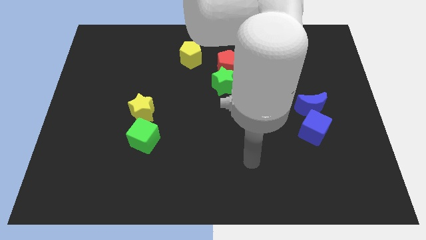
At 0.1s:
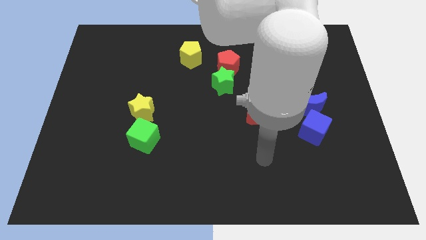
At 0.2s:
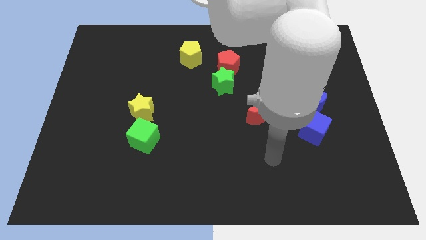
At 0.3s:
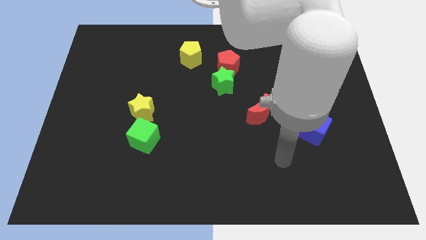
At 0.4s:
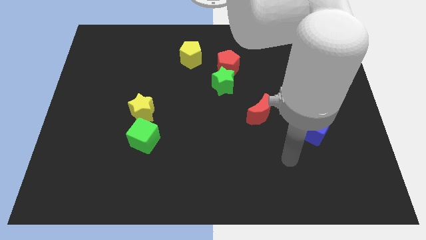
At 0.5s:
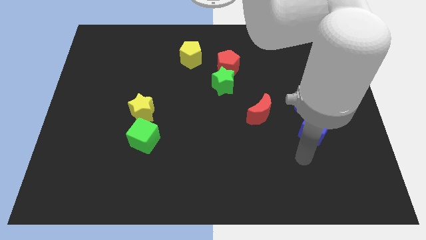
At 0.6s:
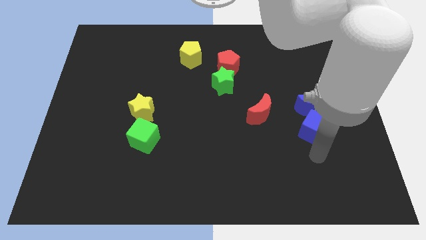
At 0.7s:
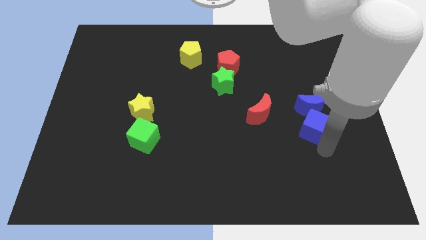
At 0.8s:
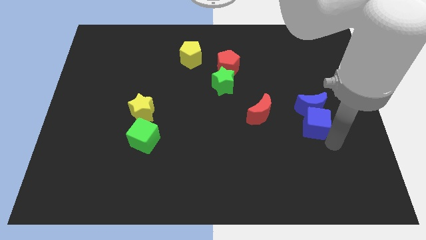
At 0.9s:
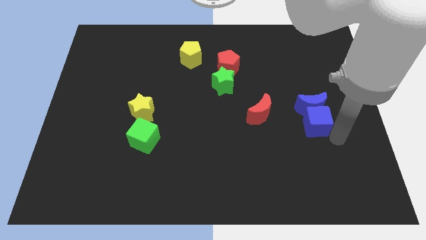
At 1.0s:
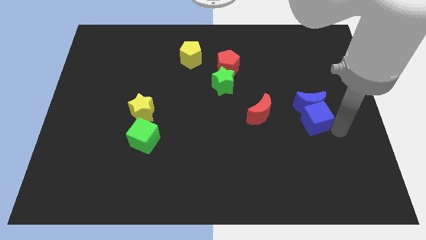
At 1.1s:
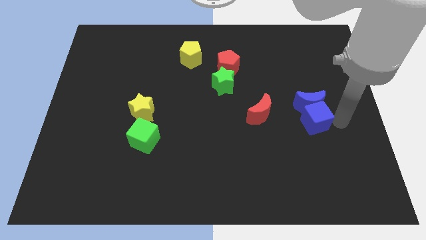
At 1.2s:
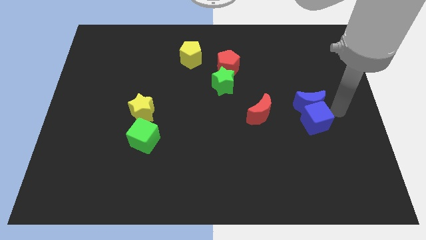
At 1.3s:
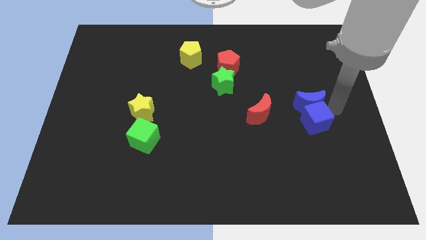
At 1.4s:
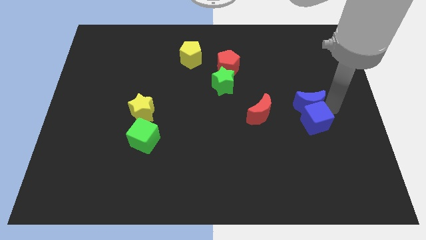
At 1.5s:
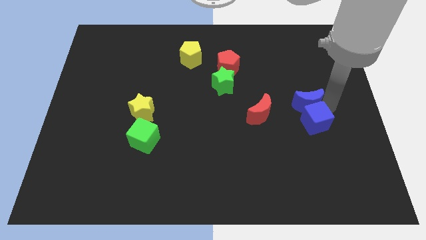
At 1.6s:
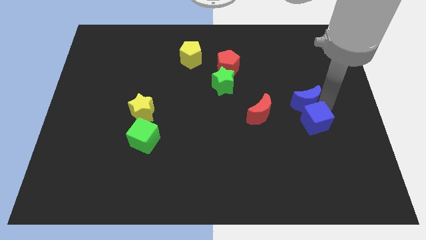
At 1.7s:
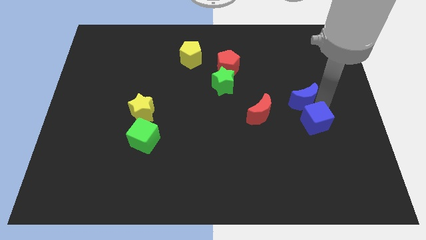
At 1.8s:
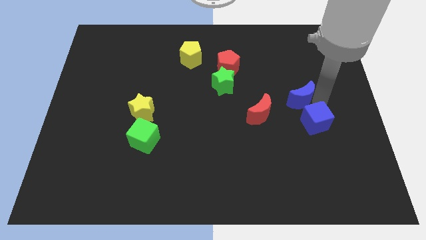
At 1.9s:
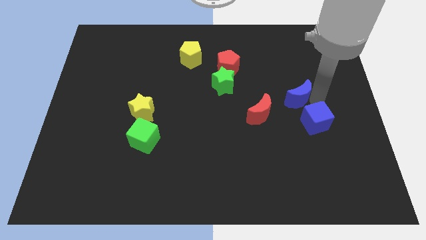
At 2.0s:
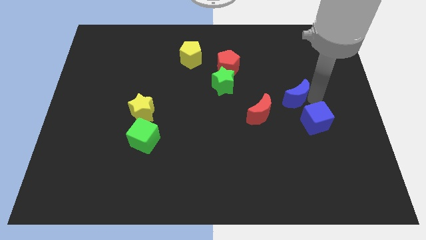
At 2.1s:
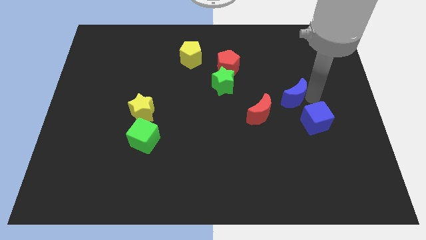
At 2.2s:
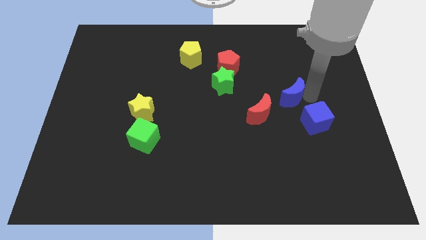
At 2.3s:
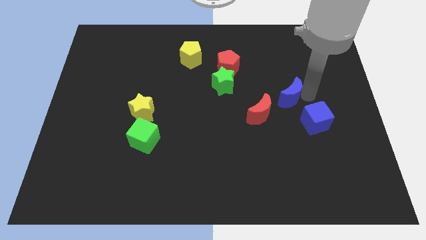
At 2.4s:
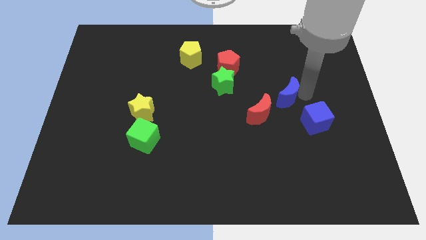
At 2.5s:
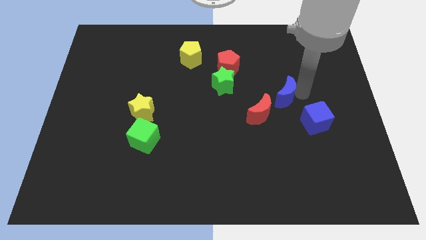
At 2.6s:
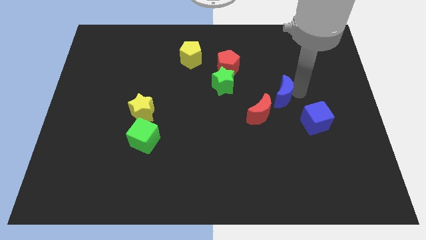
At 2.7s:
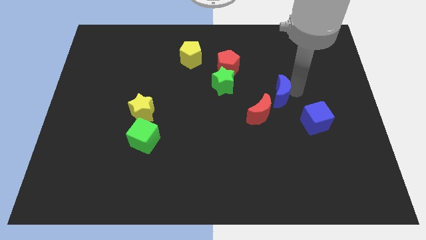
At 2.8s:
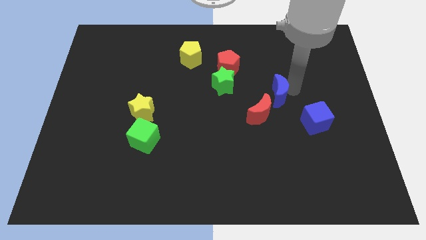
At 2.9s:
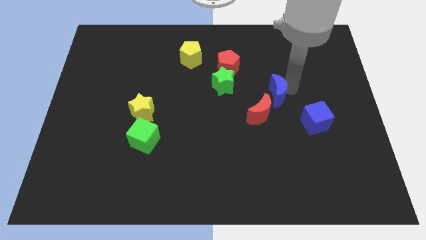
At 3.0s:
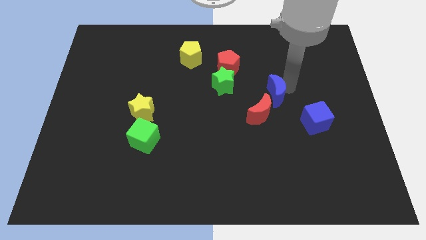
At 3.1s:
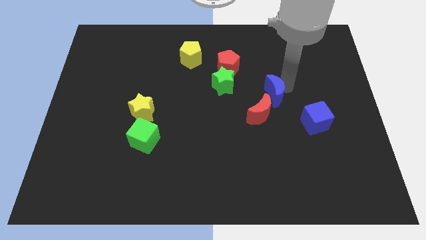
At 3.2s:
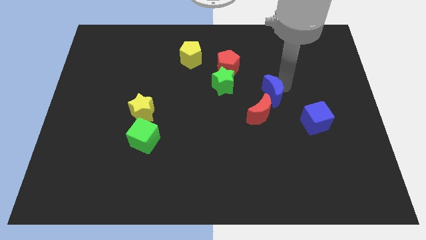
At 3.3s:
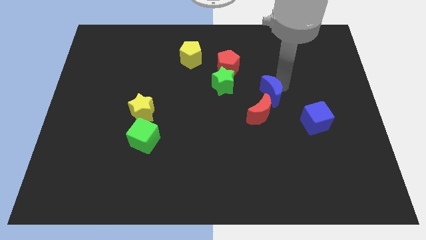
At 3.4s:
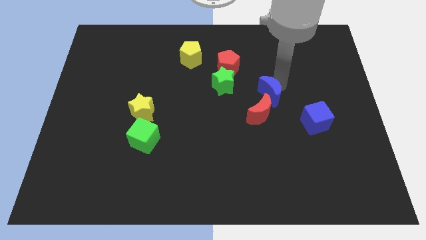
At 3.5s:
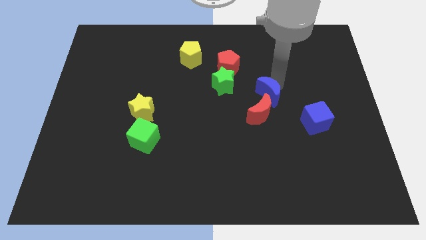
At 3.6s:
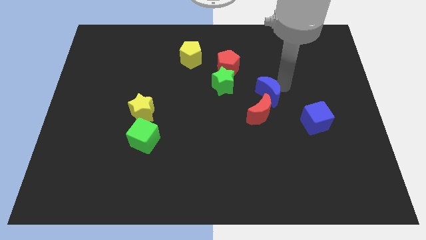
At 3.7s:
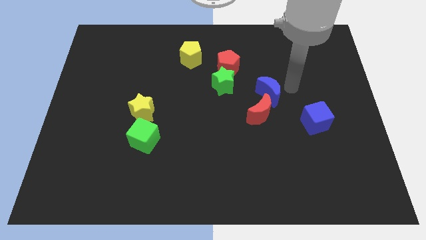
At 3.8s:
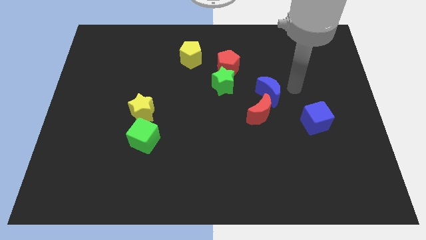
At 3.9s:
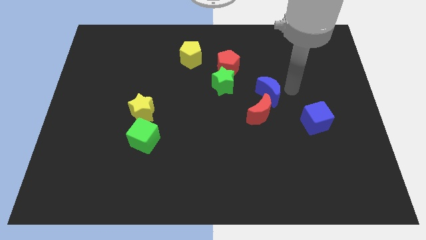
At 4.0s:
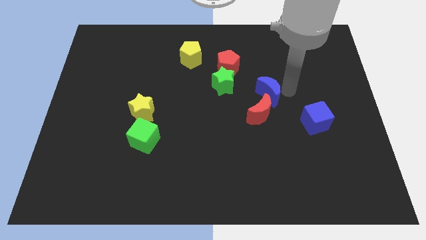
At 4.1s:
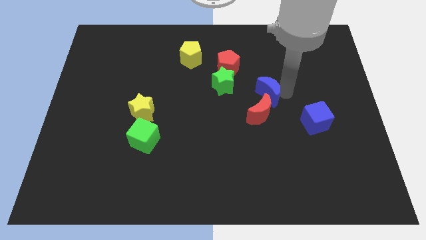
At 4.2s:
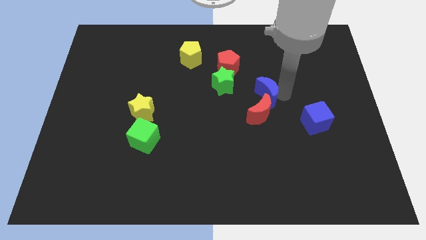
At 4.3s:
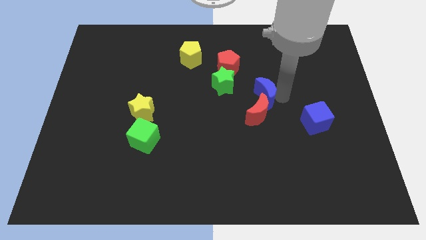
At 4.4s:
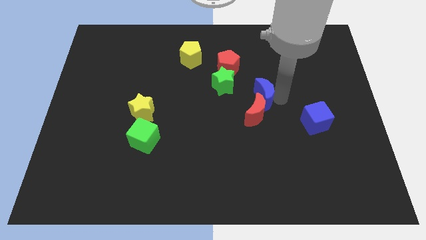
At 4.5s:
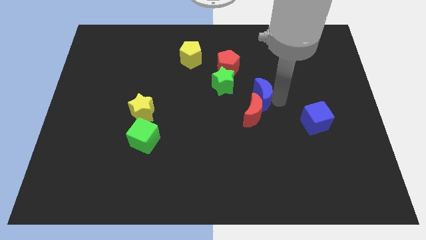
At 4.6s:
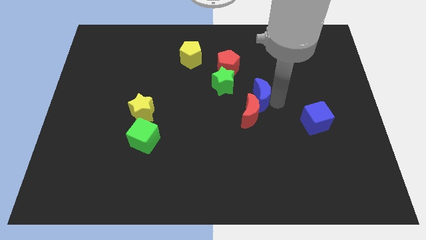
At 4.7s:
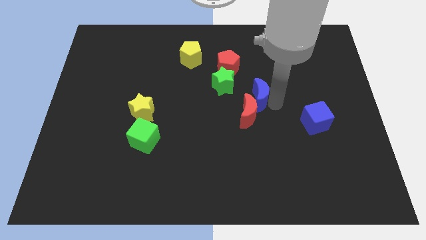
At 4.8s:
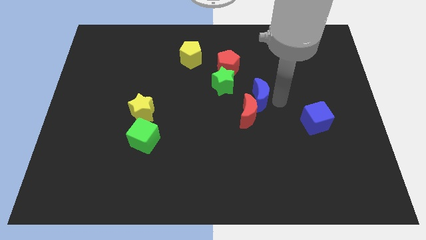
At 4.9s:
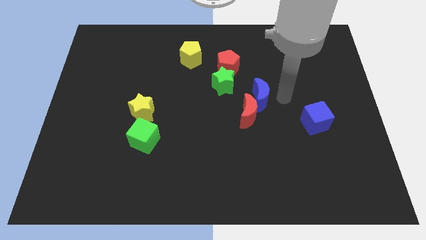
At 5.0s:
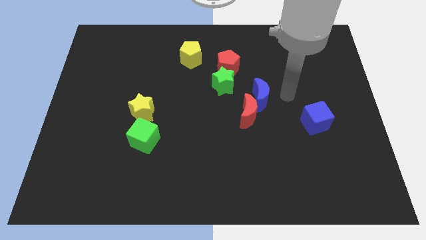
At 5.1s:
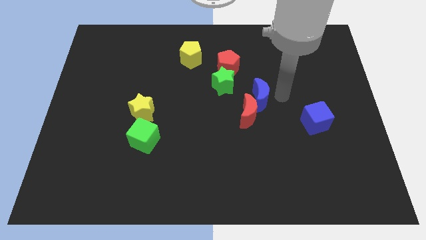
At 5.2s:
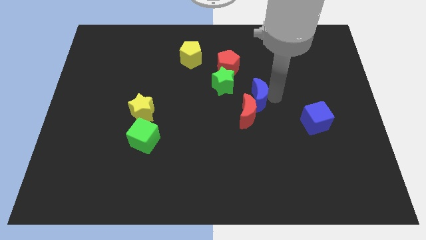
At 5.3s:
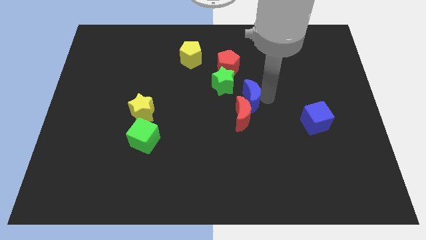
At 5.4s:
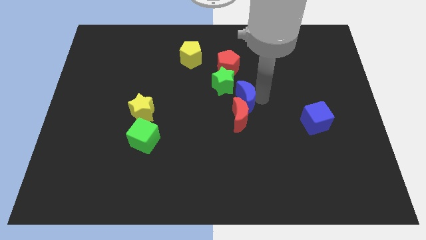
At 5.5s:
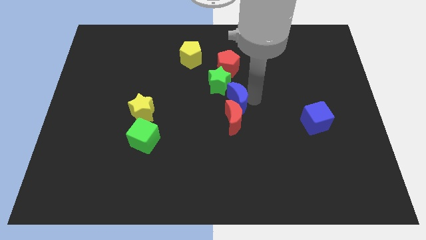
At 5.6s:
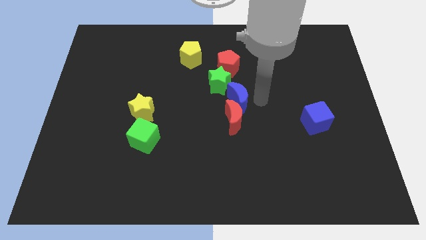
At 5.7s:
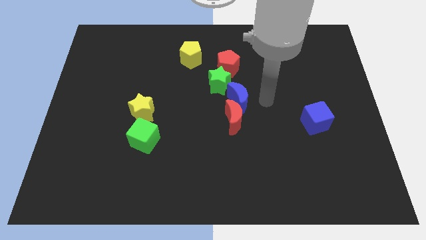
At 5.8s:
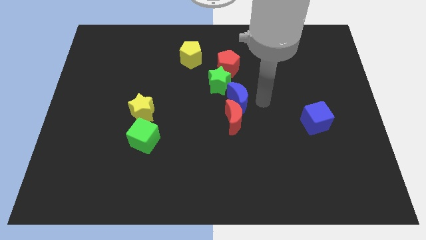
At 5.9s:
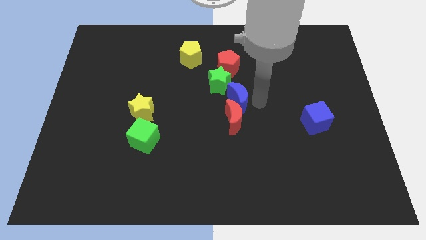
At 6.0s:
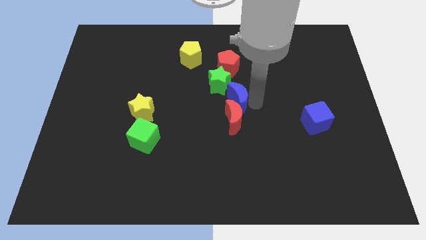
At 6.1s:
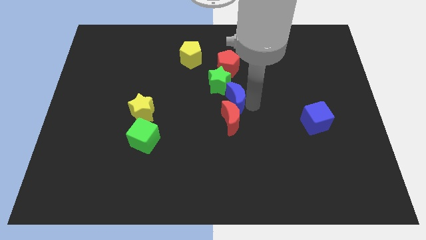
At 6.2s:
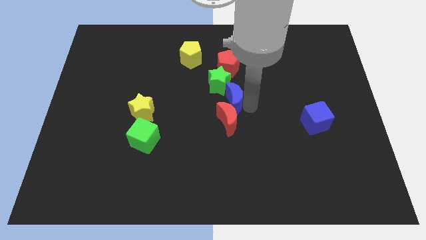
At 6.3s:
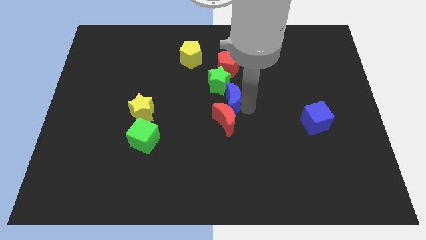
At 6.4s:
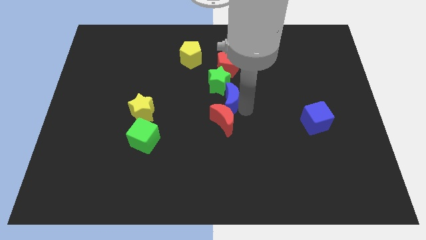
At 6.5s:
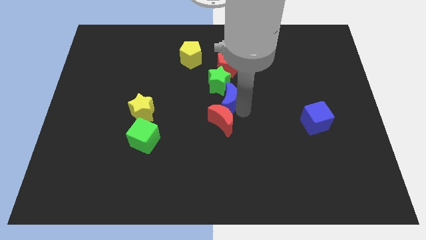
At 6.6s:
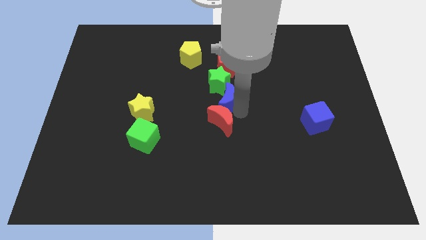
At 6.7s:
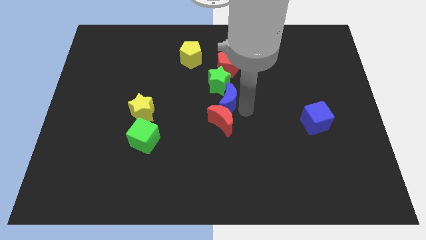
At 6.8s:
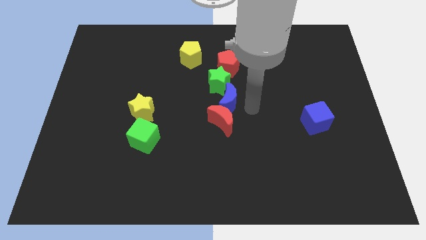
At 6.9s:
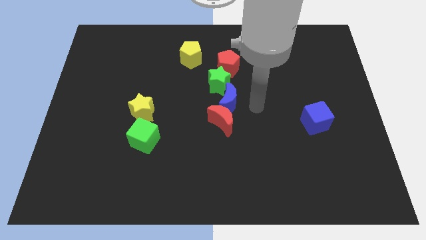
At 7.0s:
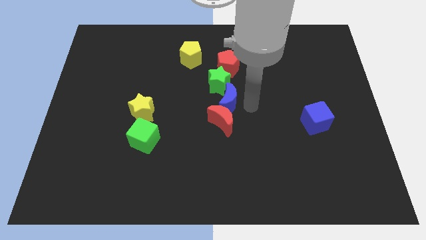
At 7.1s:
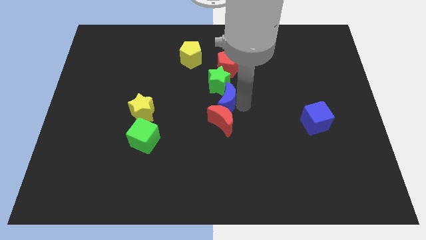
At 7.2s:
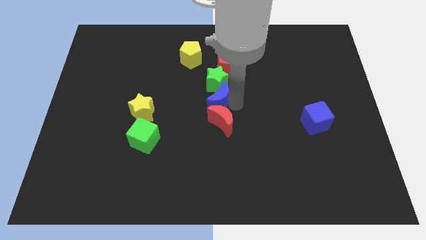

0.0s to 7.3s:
push the blue moon diagonally down and to the left of the green star

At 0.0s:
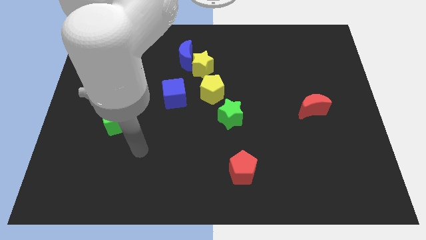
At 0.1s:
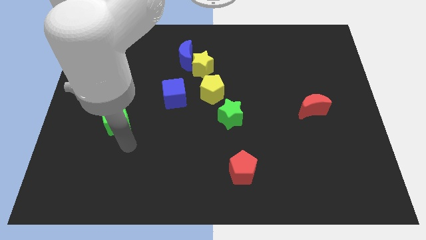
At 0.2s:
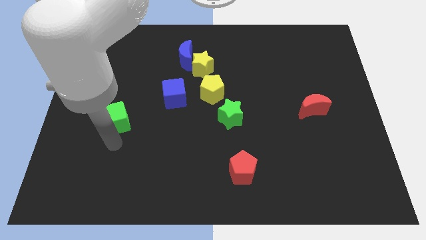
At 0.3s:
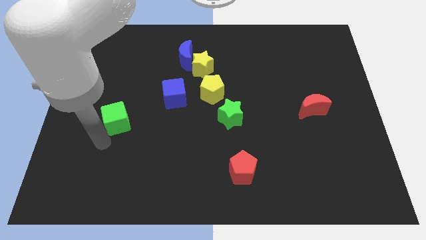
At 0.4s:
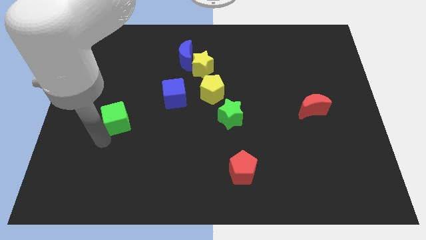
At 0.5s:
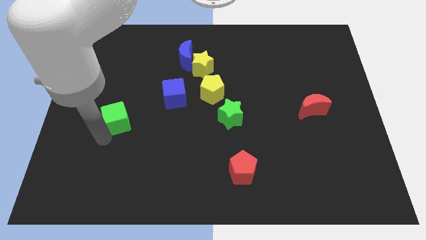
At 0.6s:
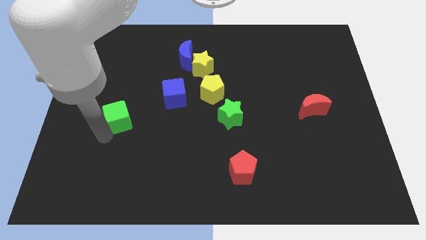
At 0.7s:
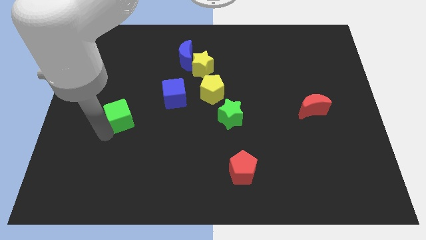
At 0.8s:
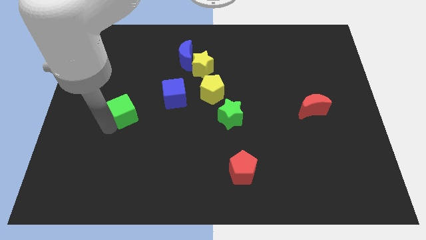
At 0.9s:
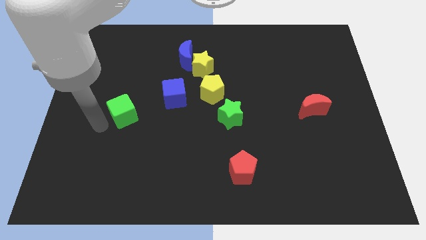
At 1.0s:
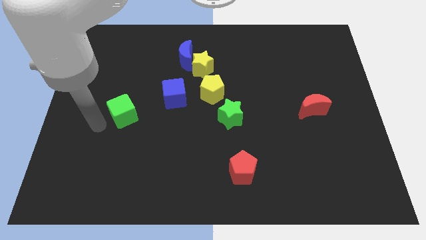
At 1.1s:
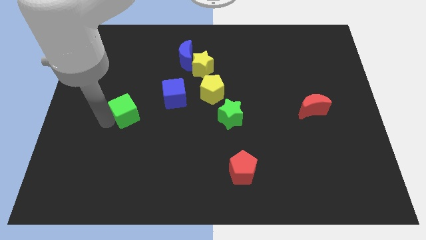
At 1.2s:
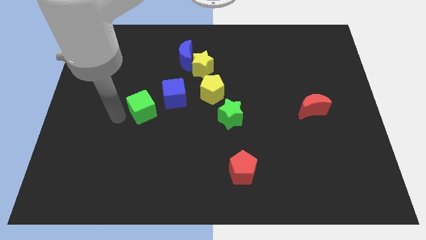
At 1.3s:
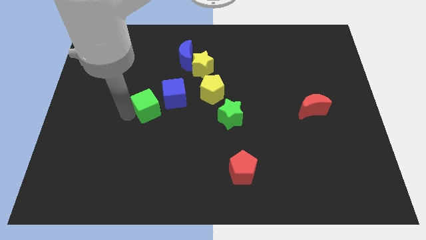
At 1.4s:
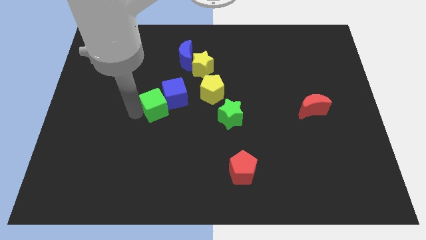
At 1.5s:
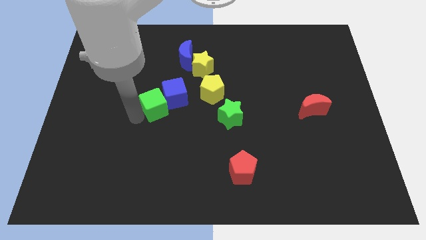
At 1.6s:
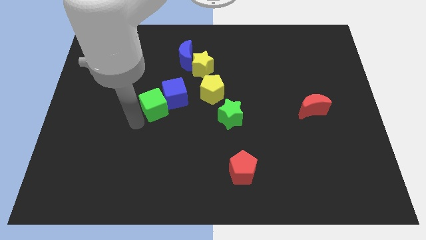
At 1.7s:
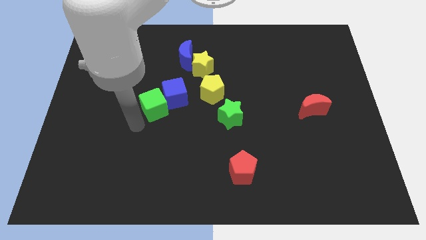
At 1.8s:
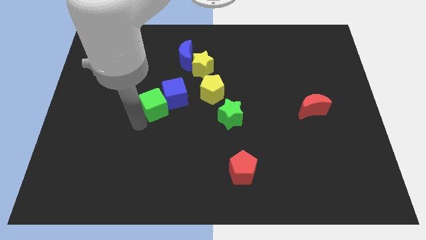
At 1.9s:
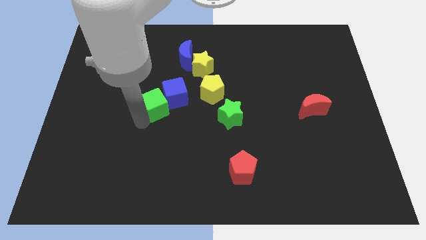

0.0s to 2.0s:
push the green cube to the left side of the yellow pentagon
